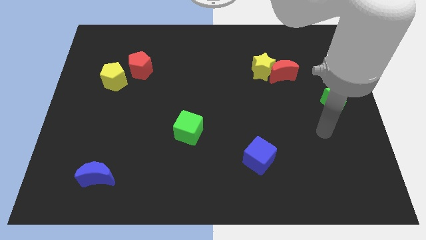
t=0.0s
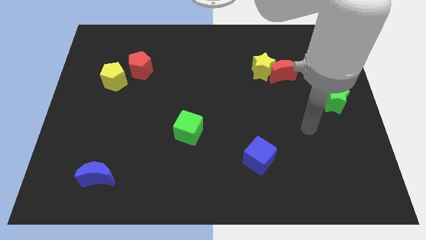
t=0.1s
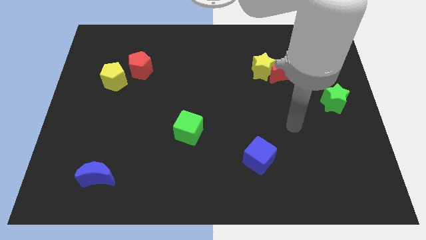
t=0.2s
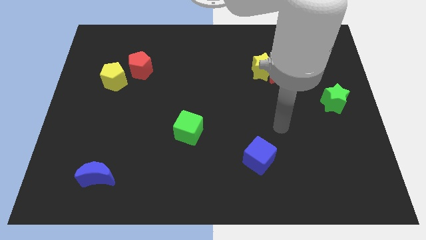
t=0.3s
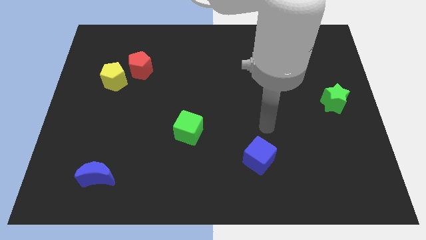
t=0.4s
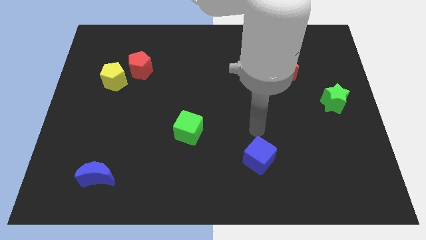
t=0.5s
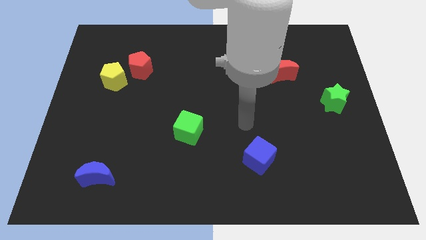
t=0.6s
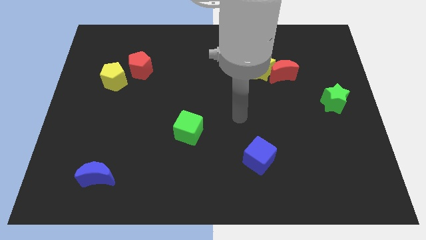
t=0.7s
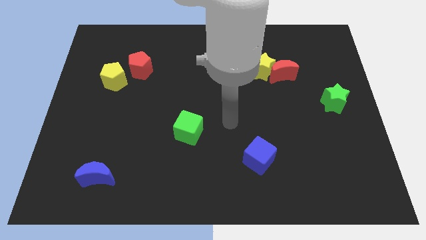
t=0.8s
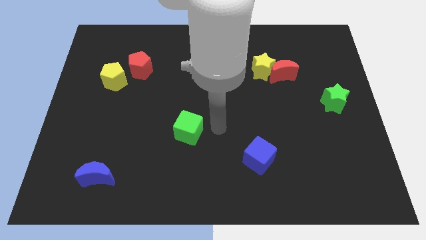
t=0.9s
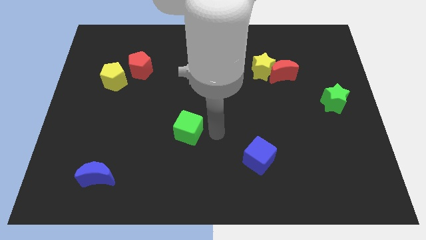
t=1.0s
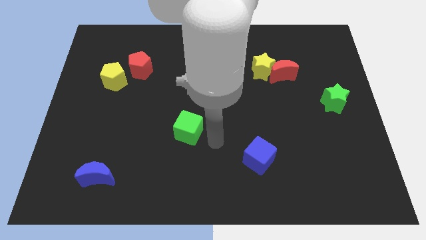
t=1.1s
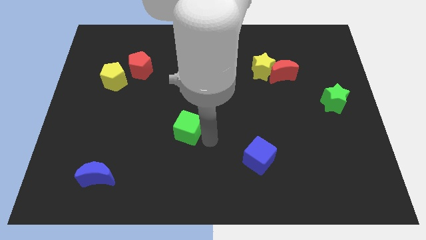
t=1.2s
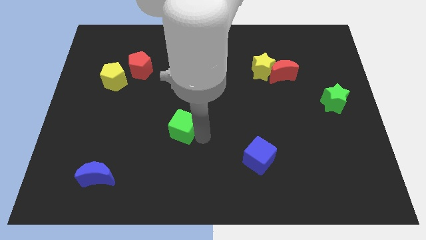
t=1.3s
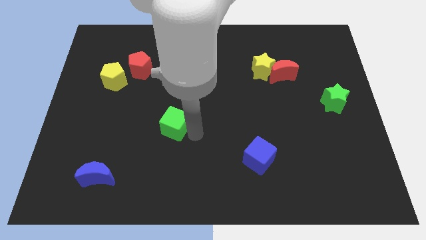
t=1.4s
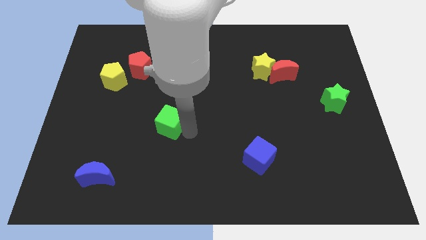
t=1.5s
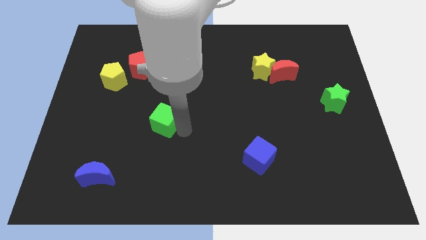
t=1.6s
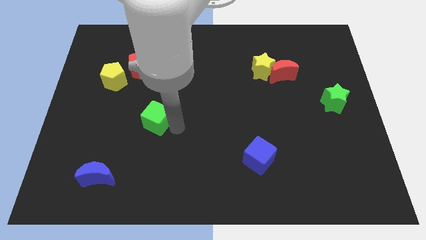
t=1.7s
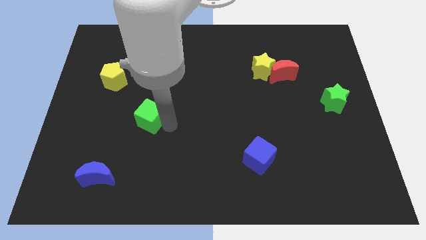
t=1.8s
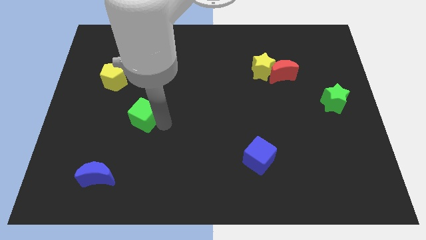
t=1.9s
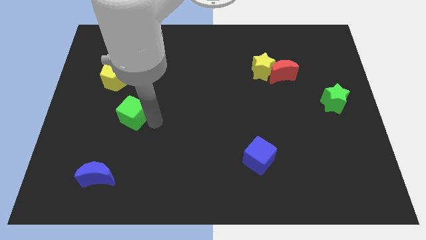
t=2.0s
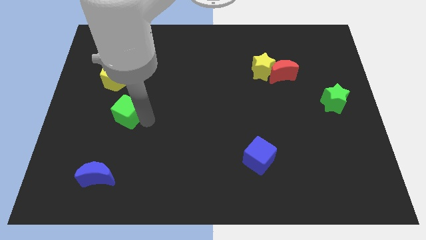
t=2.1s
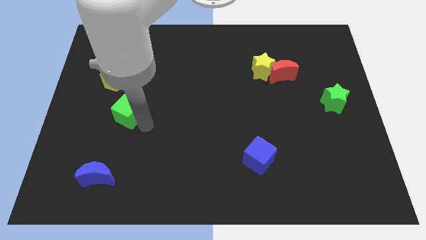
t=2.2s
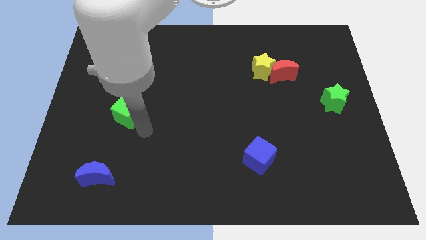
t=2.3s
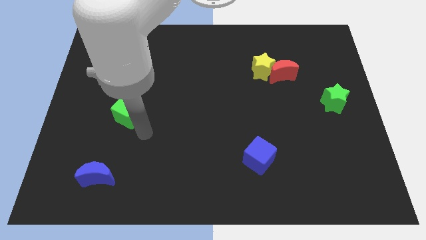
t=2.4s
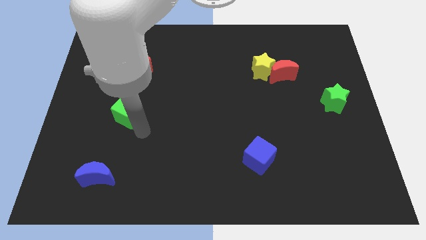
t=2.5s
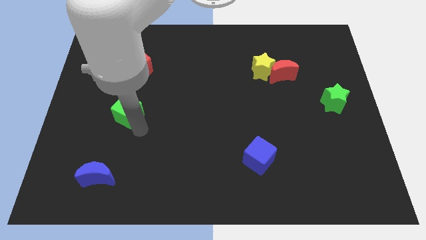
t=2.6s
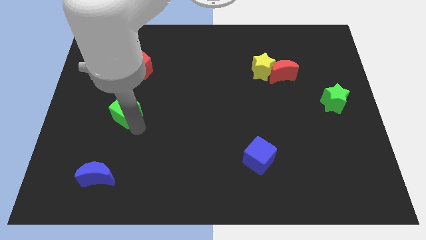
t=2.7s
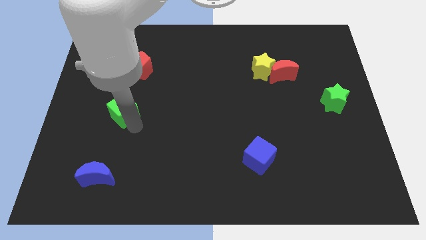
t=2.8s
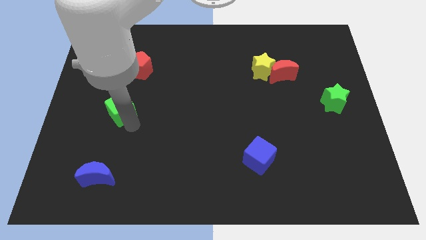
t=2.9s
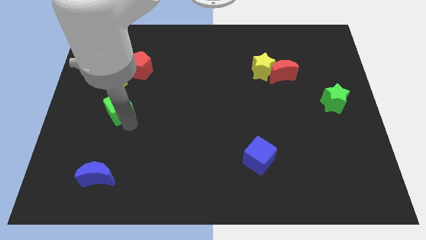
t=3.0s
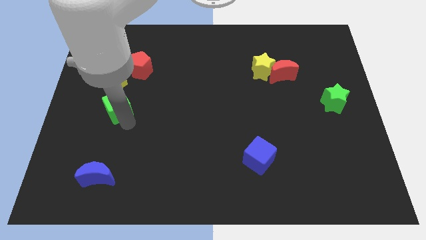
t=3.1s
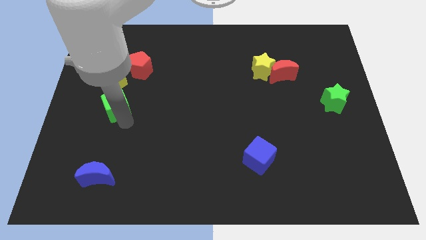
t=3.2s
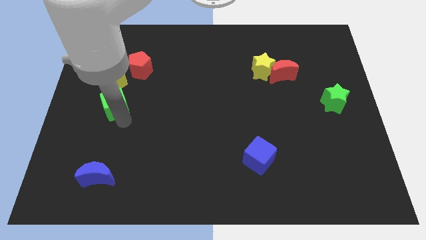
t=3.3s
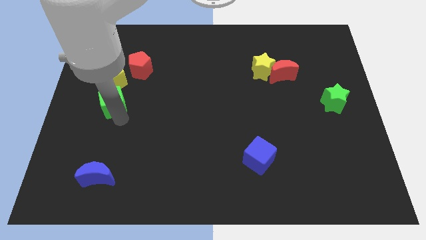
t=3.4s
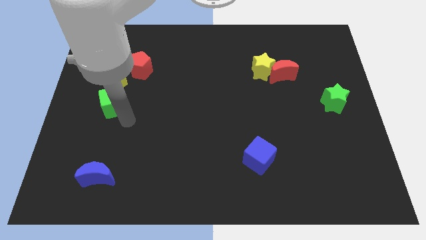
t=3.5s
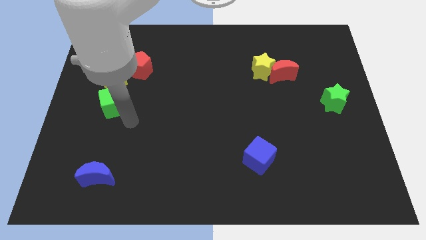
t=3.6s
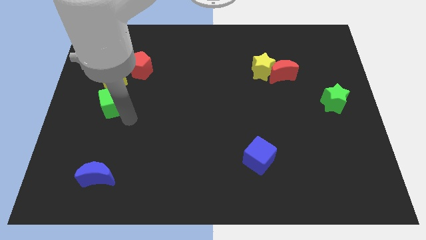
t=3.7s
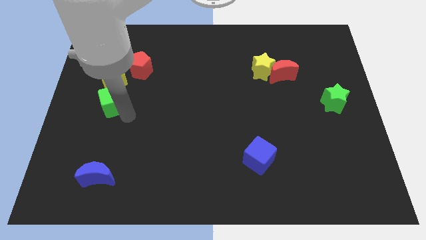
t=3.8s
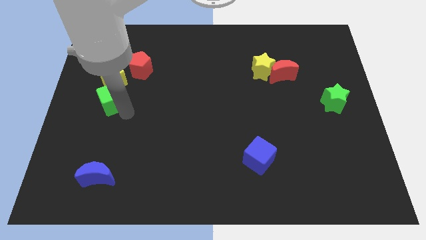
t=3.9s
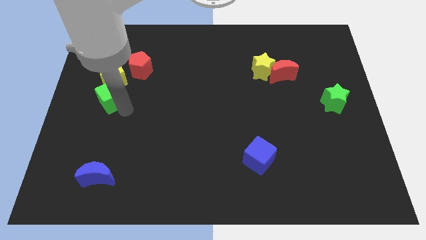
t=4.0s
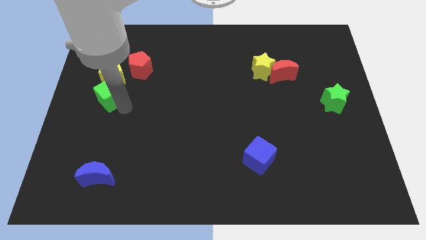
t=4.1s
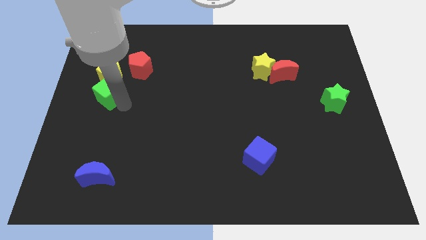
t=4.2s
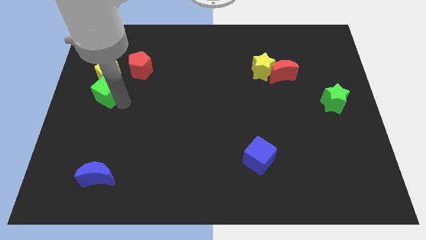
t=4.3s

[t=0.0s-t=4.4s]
slide the green cube diagonally up and to the left

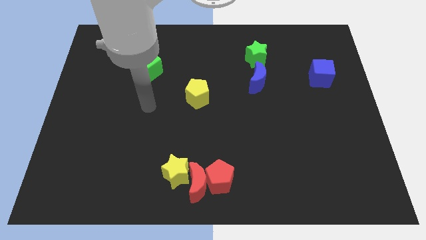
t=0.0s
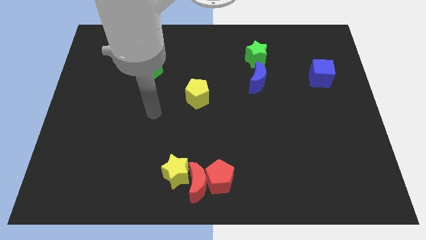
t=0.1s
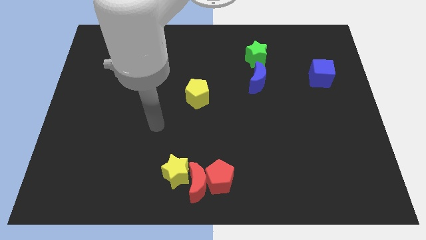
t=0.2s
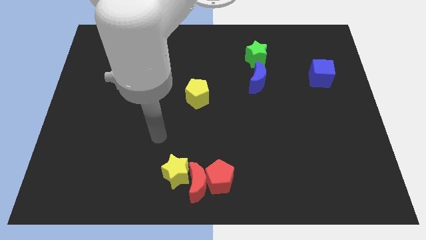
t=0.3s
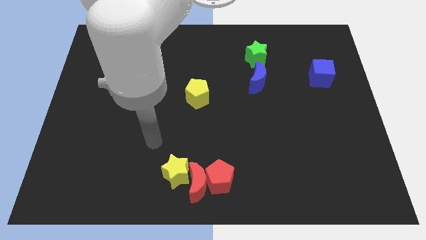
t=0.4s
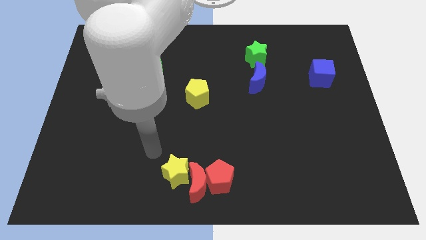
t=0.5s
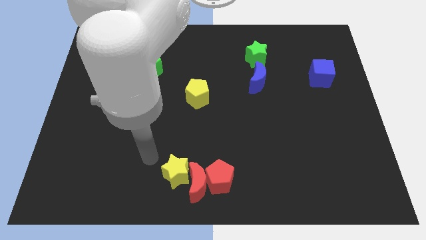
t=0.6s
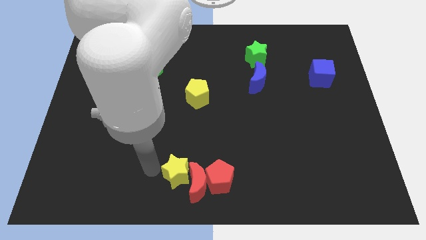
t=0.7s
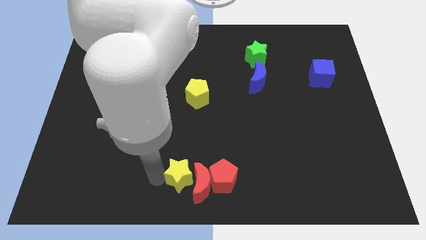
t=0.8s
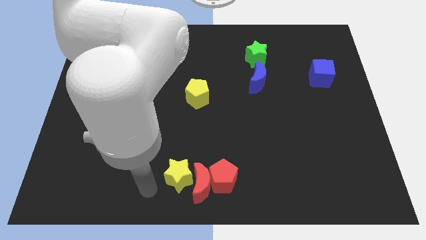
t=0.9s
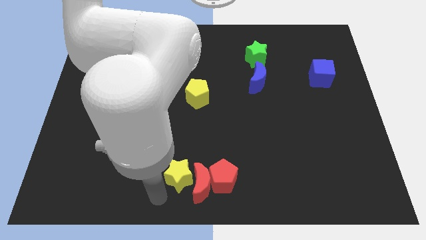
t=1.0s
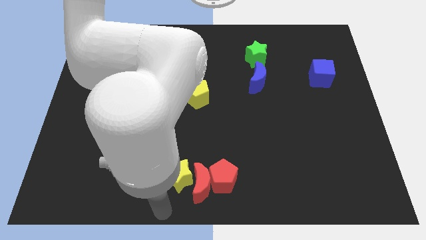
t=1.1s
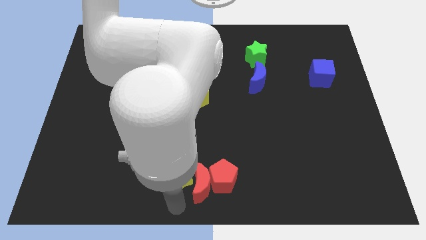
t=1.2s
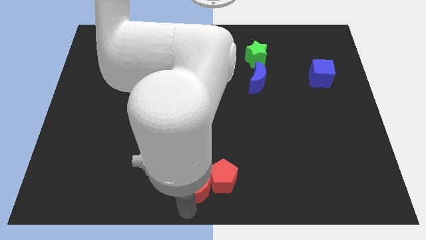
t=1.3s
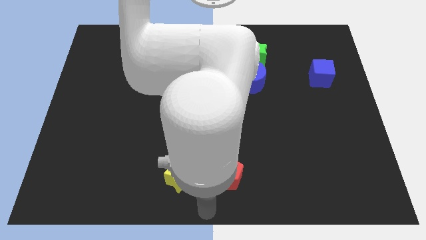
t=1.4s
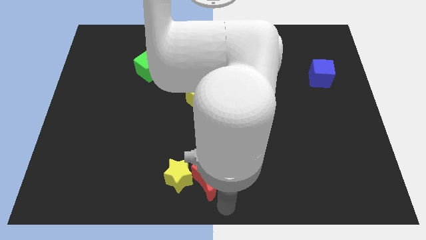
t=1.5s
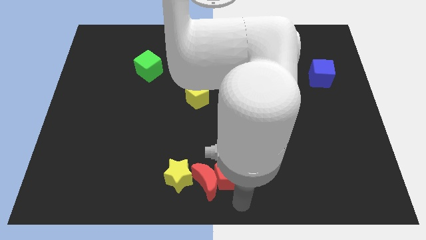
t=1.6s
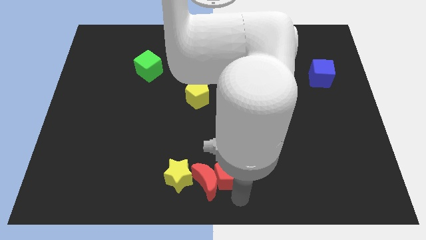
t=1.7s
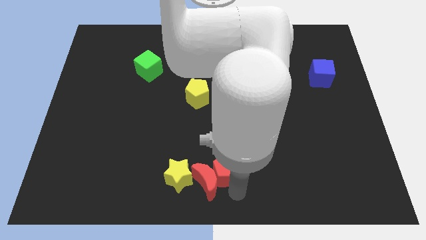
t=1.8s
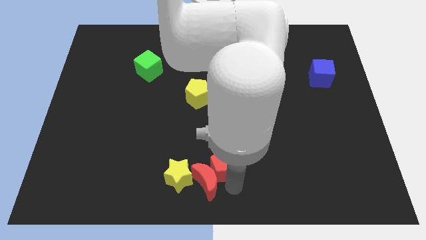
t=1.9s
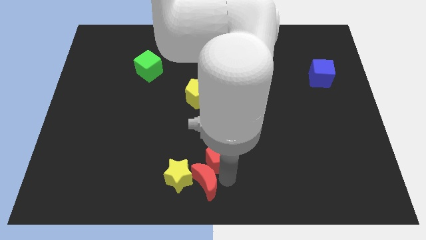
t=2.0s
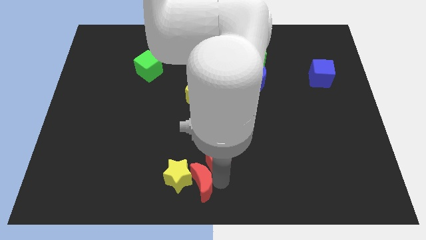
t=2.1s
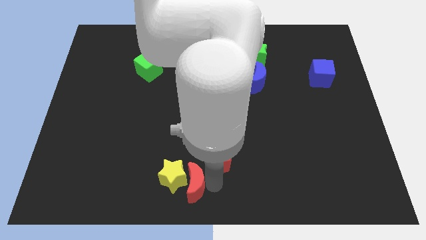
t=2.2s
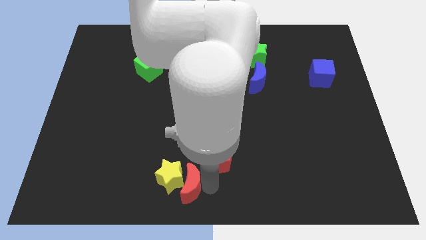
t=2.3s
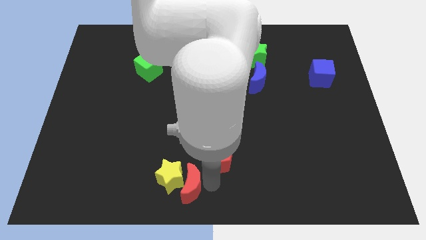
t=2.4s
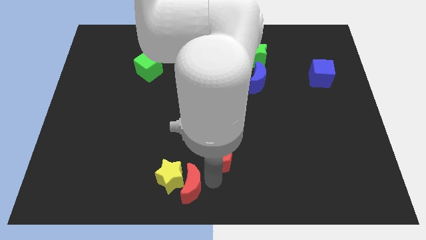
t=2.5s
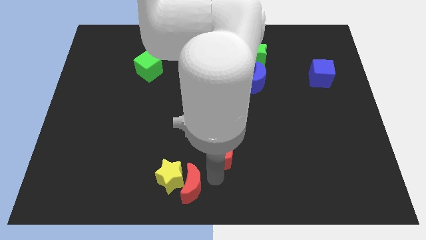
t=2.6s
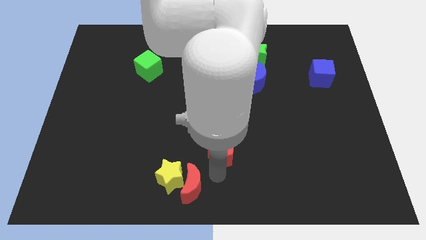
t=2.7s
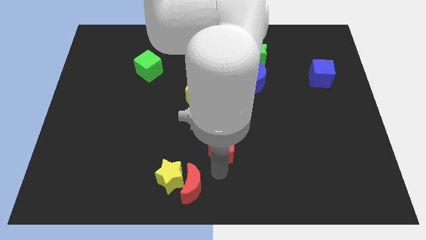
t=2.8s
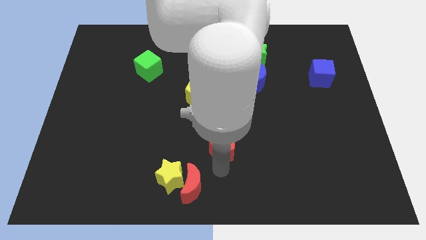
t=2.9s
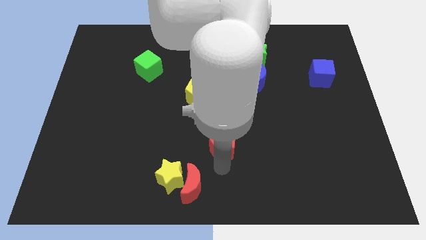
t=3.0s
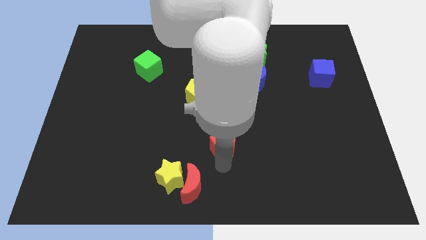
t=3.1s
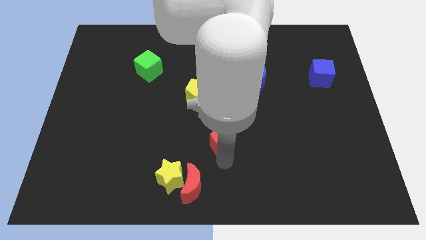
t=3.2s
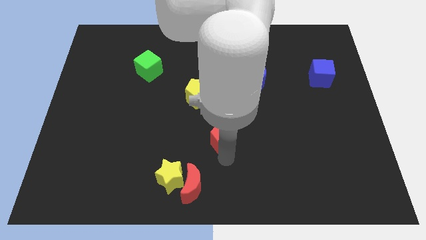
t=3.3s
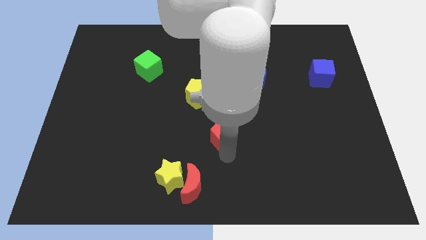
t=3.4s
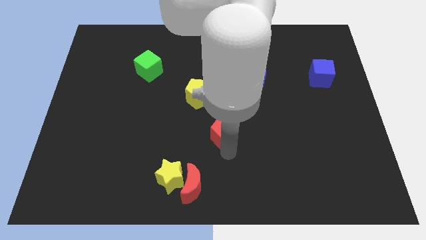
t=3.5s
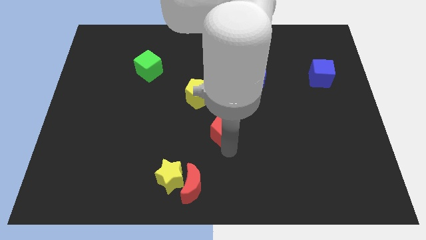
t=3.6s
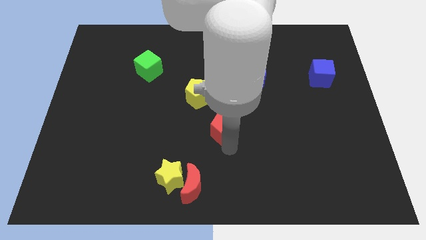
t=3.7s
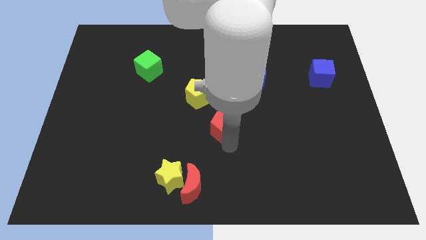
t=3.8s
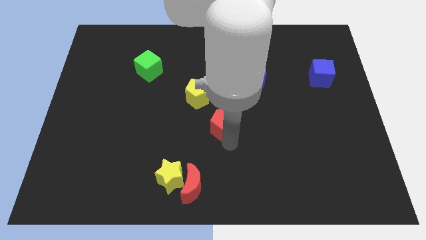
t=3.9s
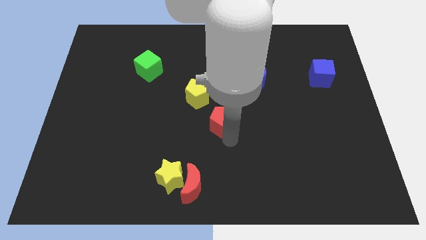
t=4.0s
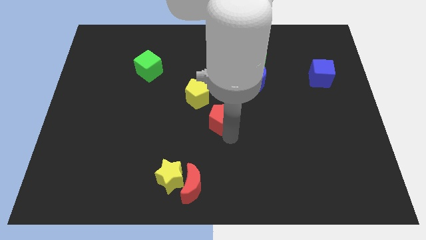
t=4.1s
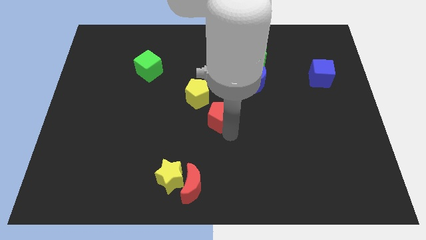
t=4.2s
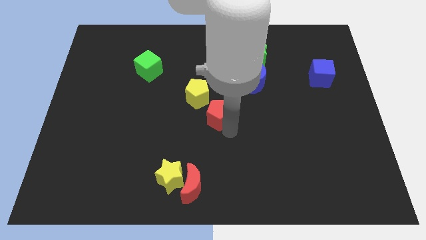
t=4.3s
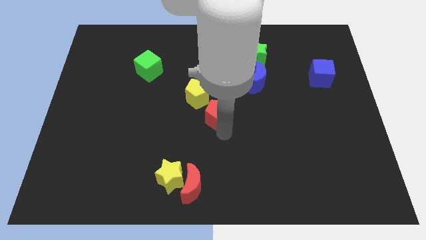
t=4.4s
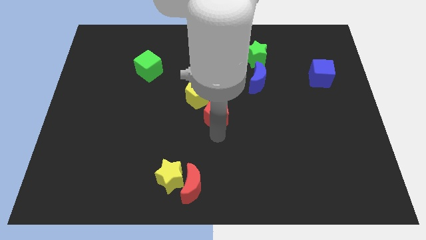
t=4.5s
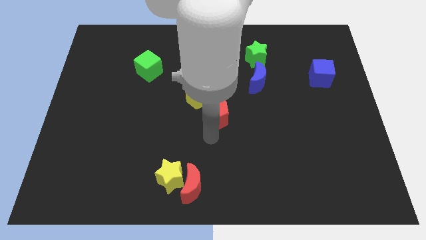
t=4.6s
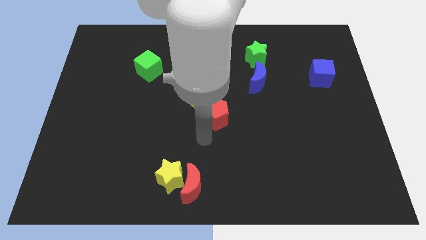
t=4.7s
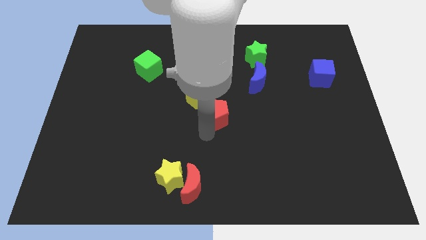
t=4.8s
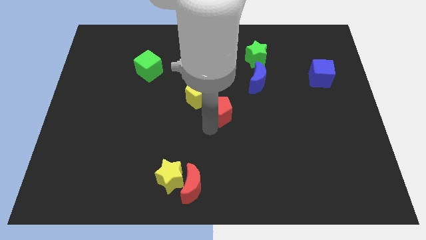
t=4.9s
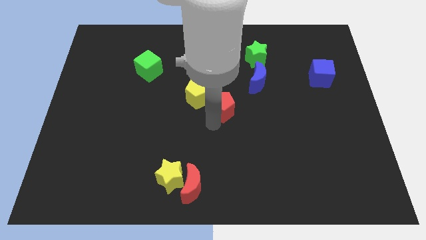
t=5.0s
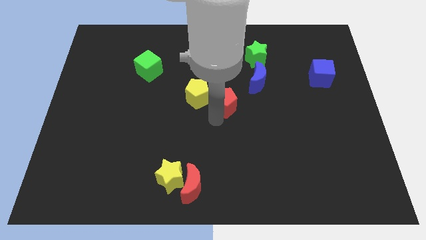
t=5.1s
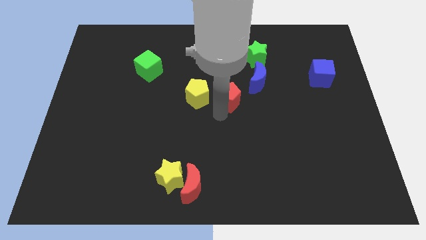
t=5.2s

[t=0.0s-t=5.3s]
push the red pentagon upwards
